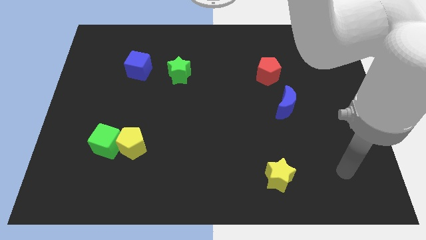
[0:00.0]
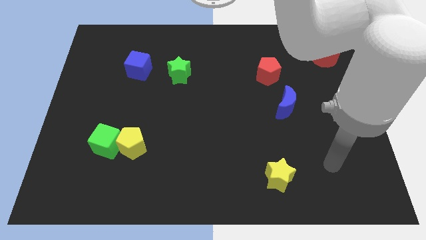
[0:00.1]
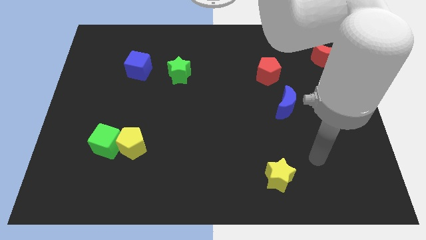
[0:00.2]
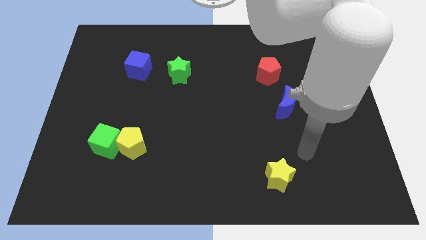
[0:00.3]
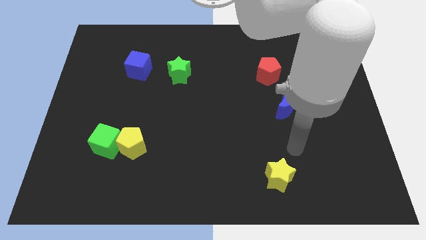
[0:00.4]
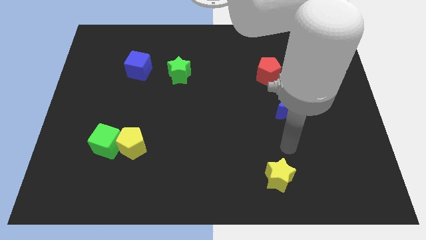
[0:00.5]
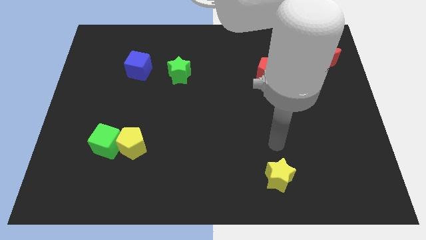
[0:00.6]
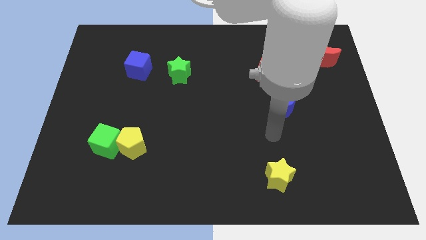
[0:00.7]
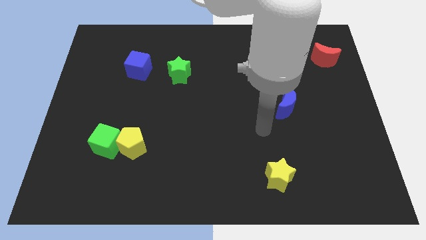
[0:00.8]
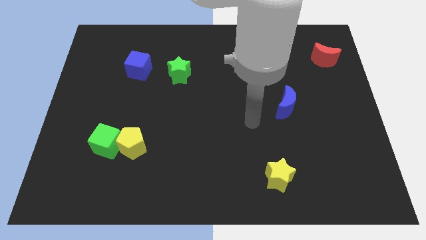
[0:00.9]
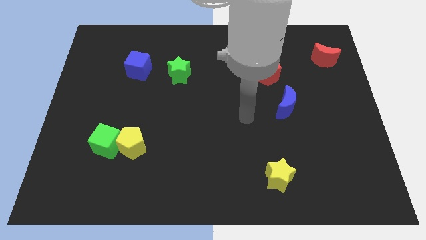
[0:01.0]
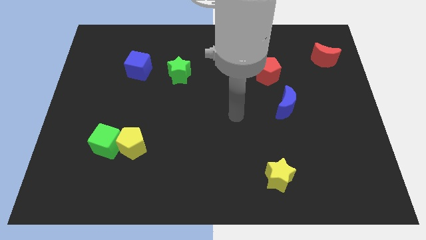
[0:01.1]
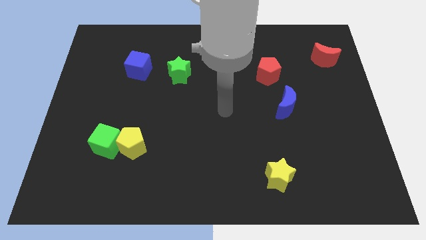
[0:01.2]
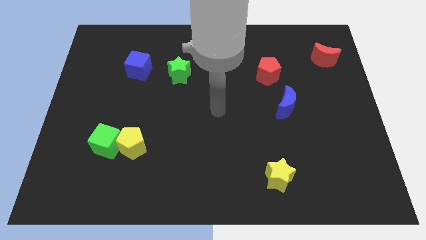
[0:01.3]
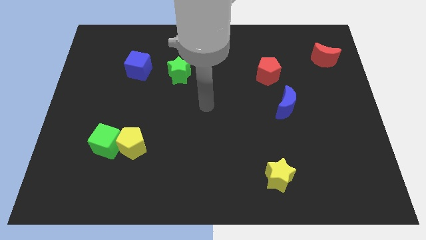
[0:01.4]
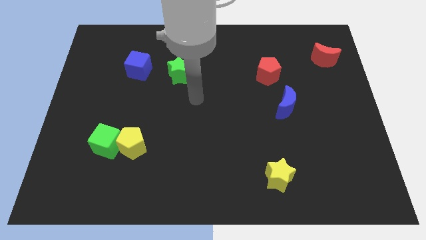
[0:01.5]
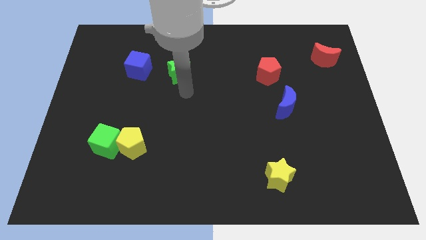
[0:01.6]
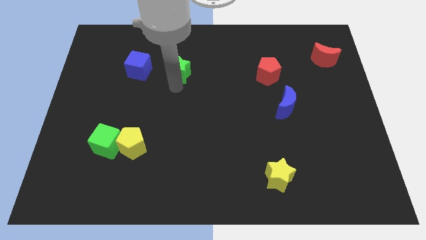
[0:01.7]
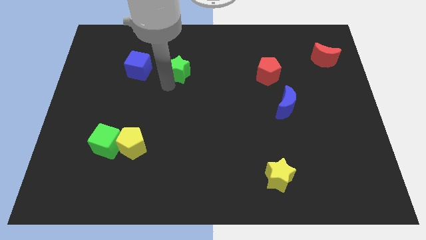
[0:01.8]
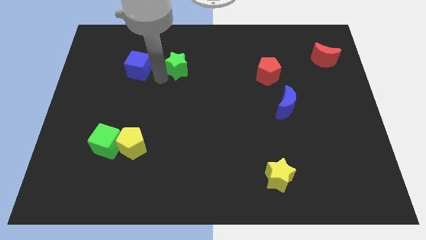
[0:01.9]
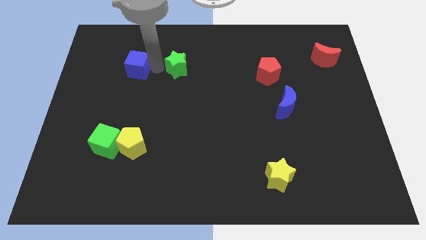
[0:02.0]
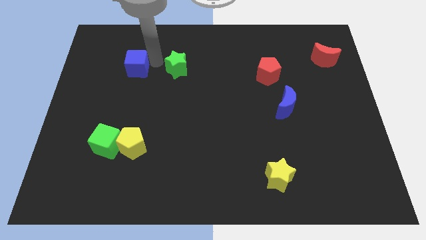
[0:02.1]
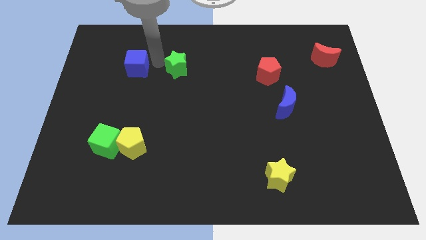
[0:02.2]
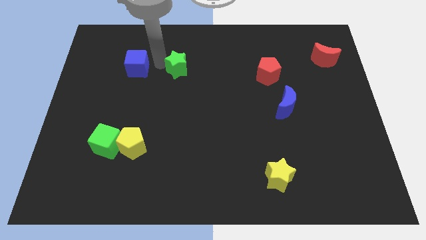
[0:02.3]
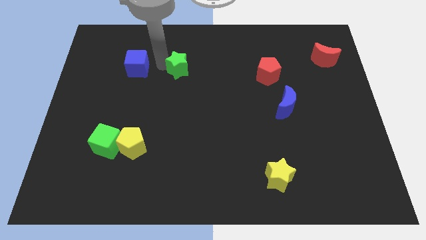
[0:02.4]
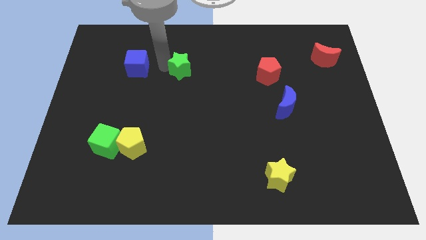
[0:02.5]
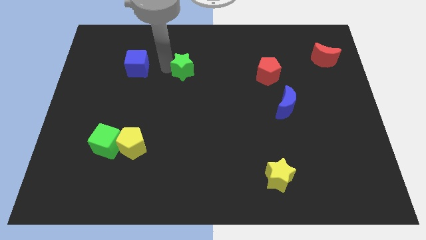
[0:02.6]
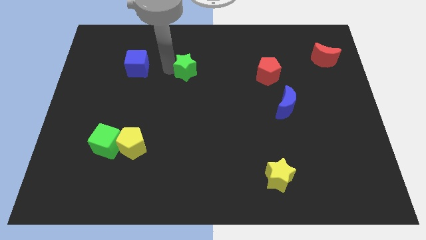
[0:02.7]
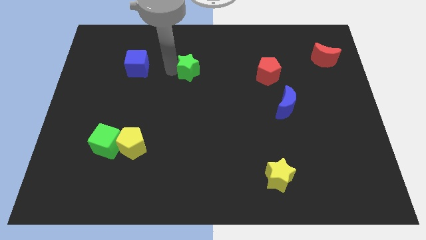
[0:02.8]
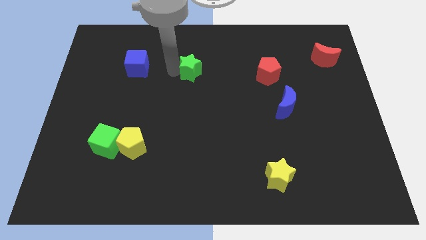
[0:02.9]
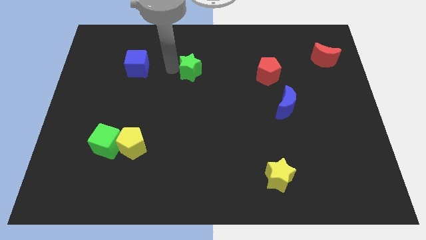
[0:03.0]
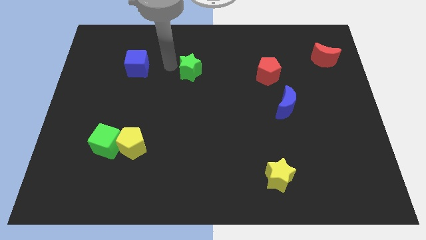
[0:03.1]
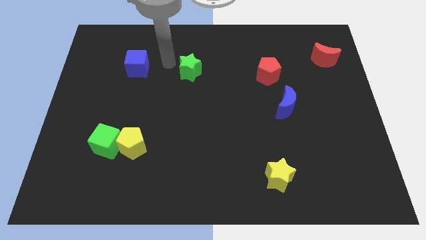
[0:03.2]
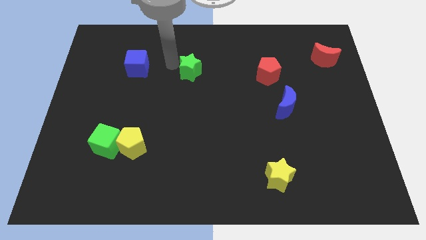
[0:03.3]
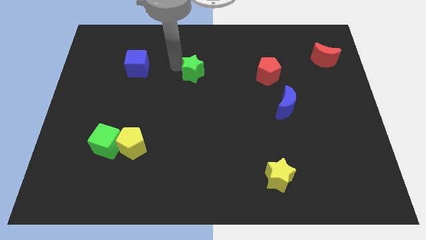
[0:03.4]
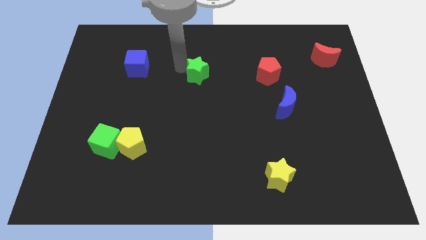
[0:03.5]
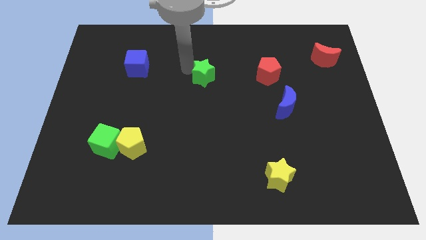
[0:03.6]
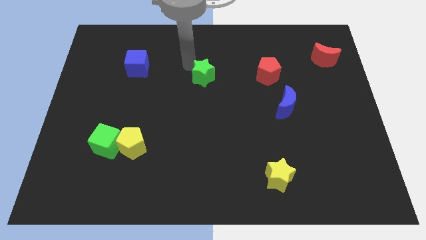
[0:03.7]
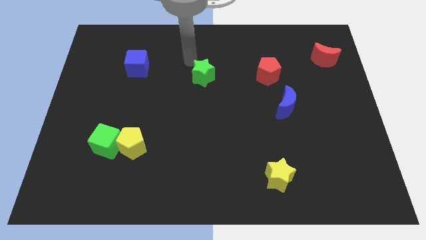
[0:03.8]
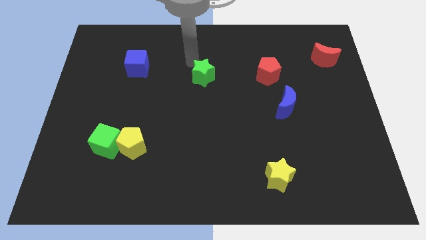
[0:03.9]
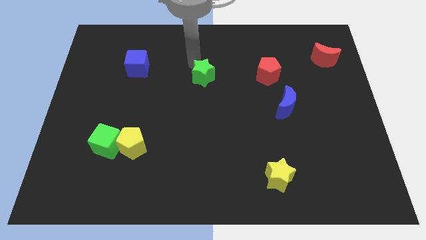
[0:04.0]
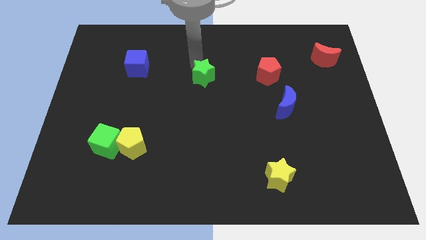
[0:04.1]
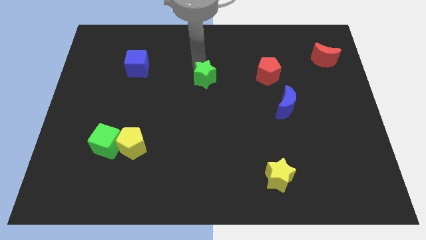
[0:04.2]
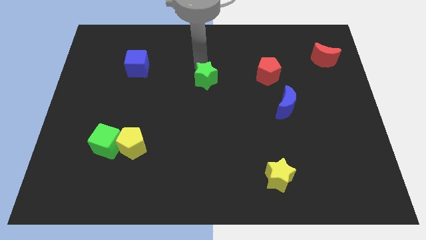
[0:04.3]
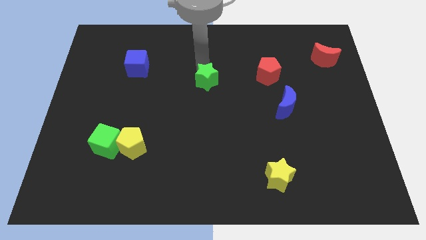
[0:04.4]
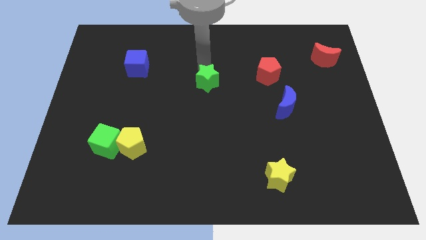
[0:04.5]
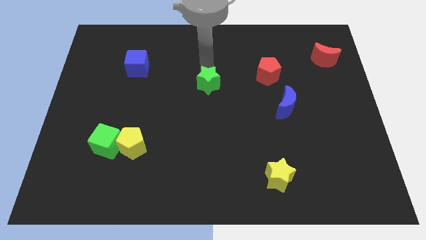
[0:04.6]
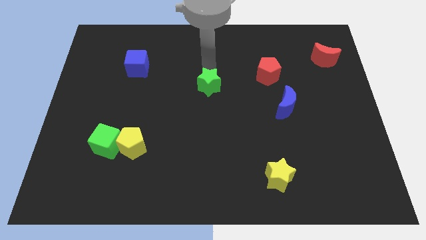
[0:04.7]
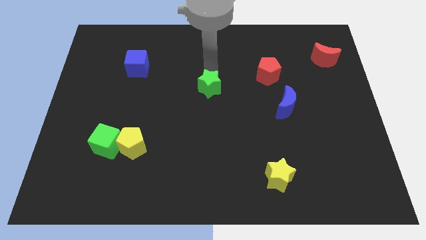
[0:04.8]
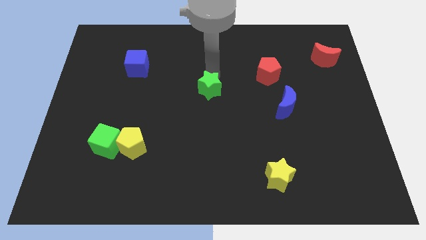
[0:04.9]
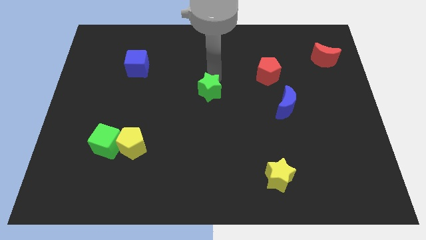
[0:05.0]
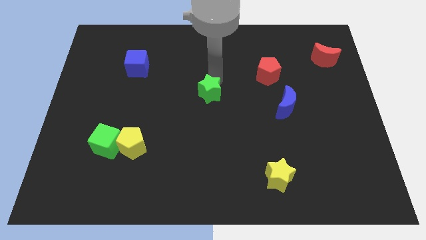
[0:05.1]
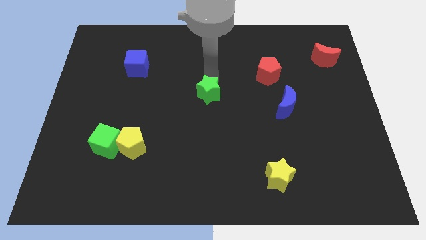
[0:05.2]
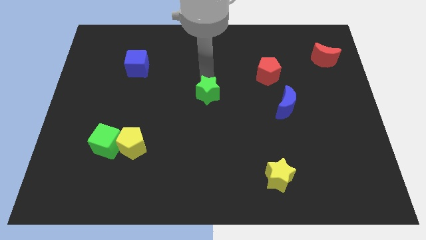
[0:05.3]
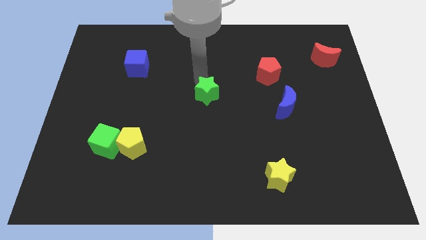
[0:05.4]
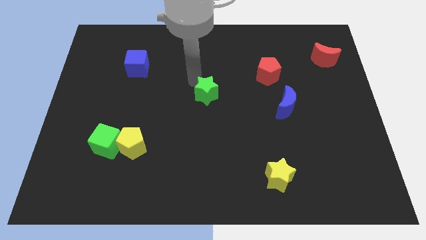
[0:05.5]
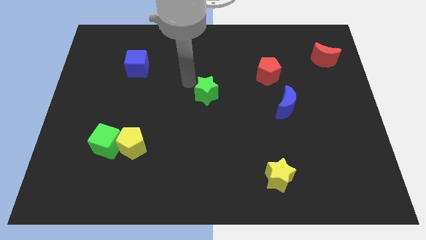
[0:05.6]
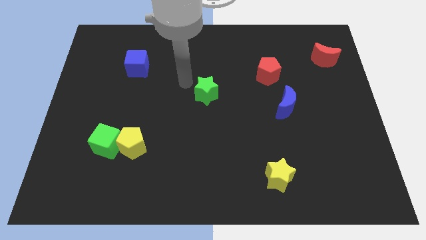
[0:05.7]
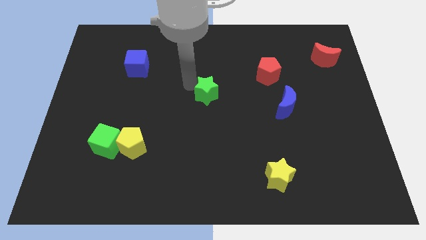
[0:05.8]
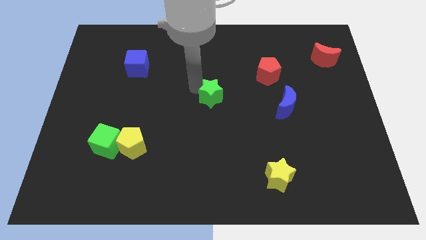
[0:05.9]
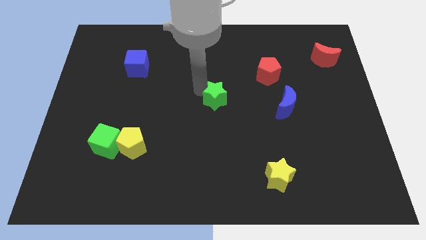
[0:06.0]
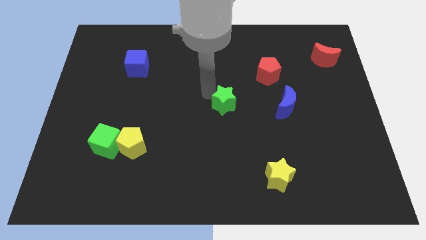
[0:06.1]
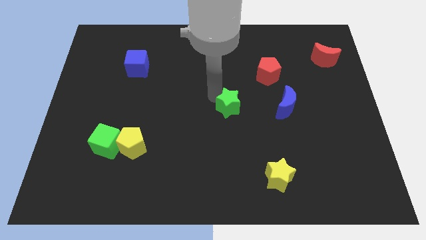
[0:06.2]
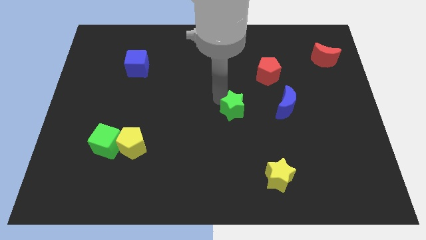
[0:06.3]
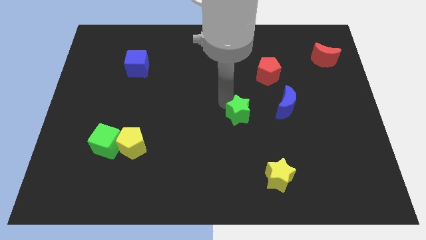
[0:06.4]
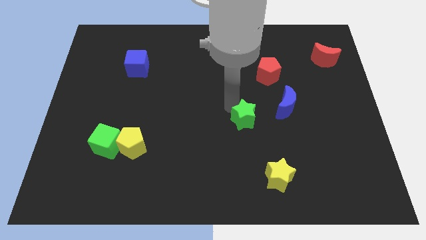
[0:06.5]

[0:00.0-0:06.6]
push the green star down and then right

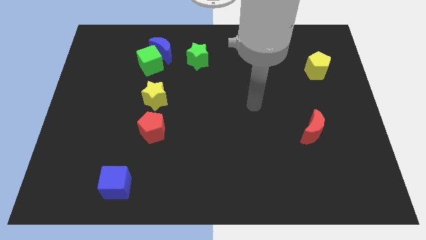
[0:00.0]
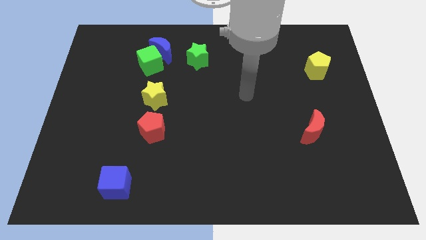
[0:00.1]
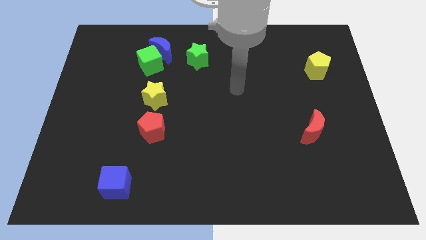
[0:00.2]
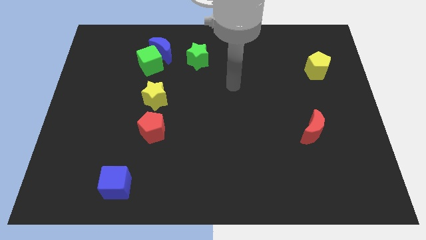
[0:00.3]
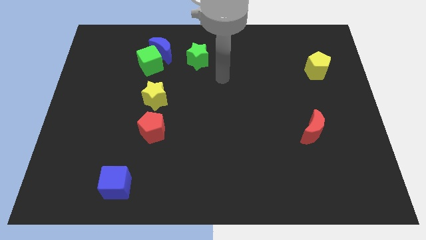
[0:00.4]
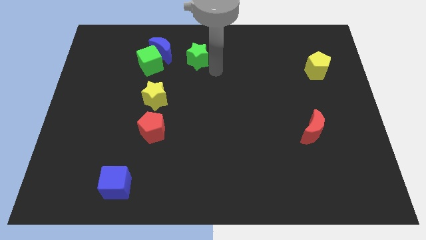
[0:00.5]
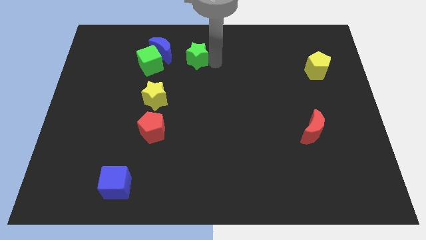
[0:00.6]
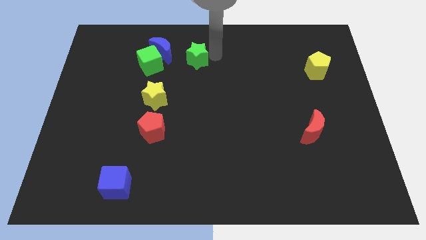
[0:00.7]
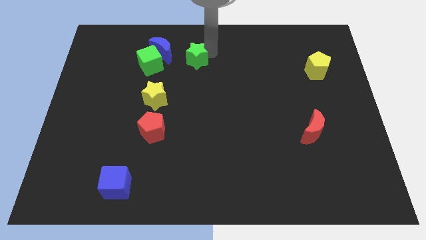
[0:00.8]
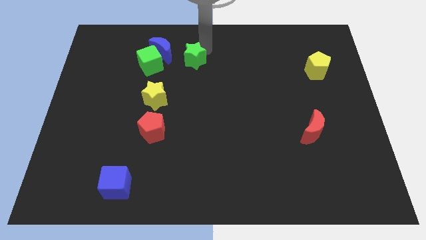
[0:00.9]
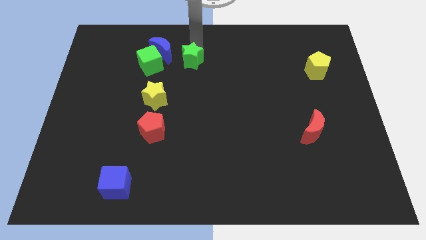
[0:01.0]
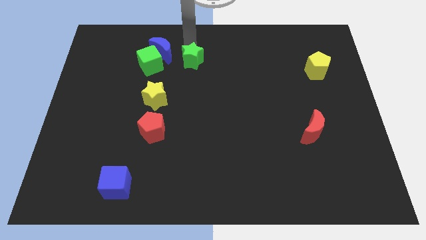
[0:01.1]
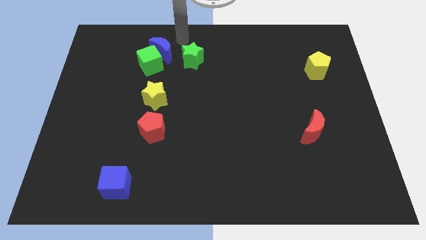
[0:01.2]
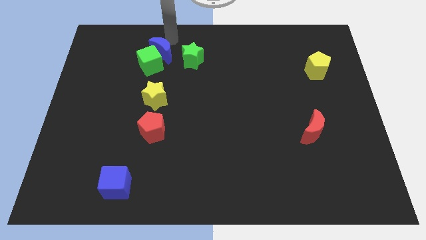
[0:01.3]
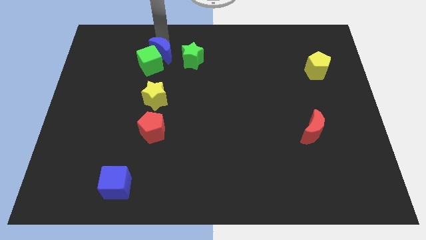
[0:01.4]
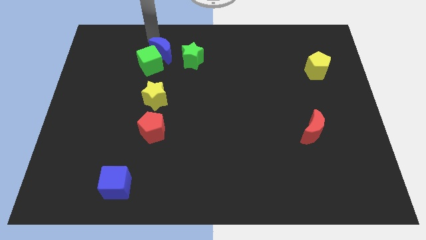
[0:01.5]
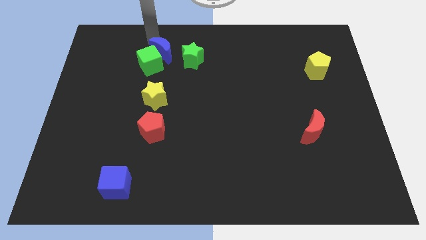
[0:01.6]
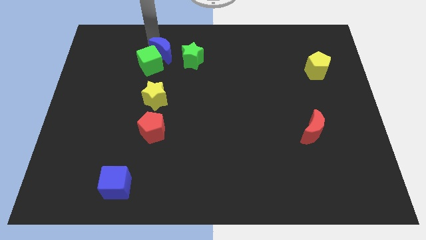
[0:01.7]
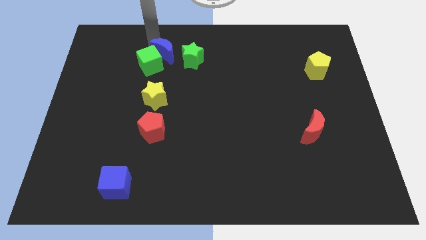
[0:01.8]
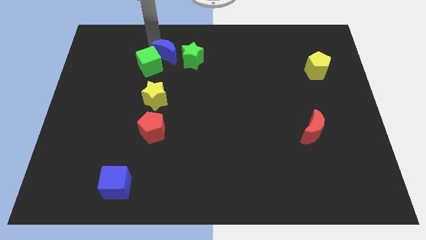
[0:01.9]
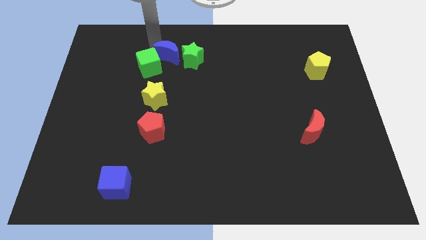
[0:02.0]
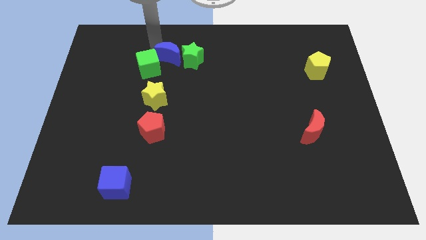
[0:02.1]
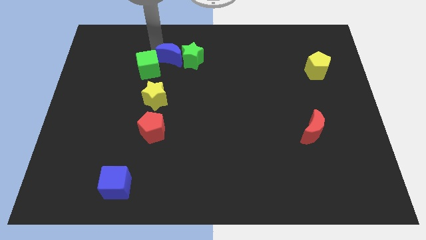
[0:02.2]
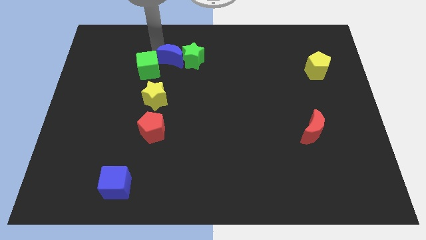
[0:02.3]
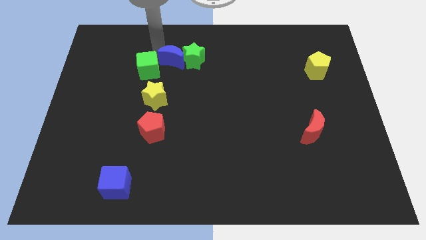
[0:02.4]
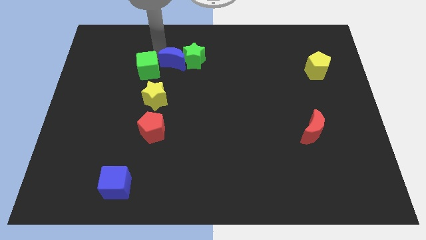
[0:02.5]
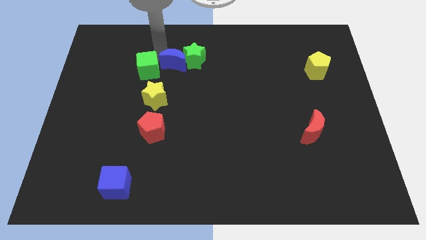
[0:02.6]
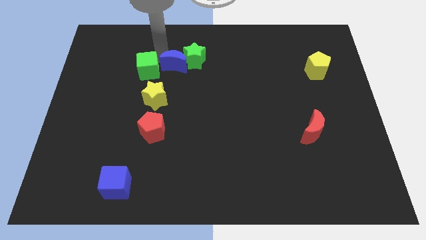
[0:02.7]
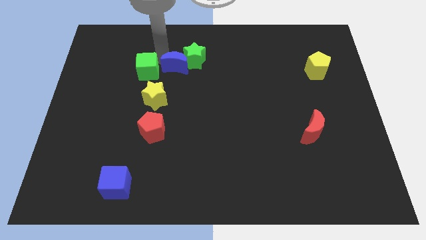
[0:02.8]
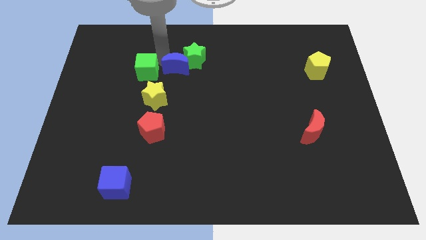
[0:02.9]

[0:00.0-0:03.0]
slide the blue moon down and then to the right somewhat
